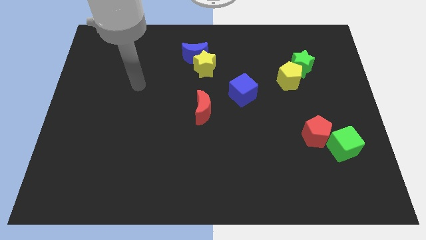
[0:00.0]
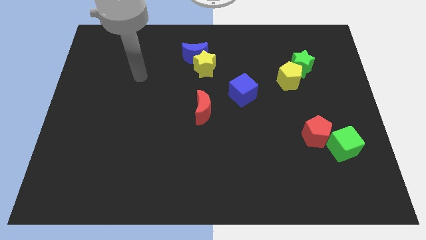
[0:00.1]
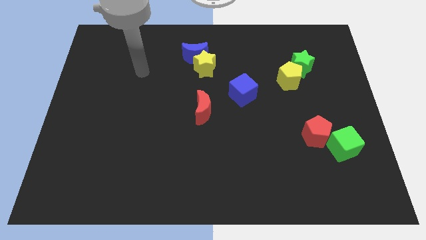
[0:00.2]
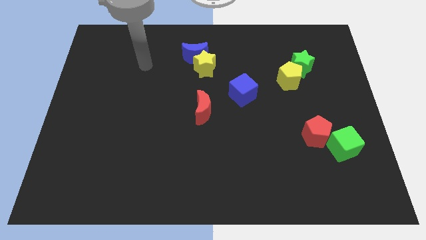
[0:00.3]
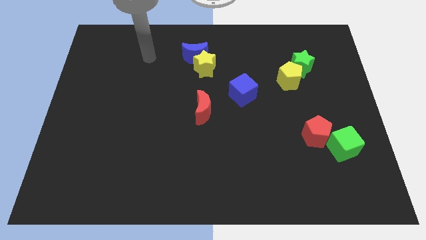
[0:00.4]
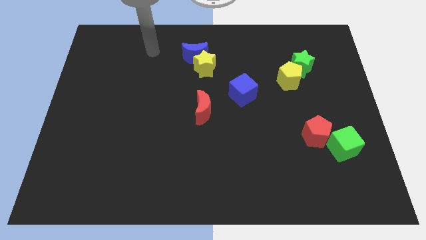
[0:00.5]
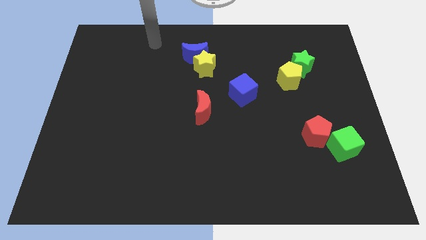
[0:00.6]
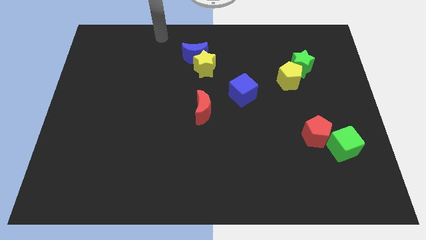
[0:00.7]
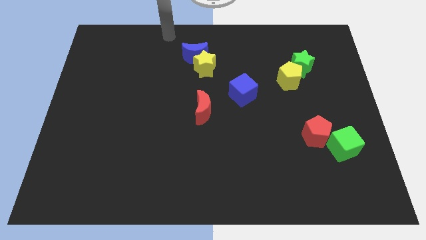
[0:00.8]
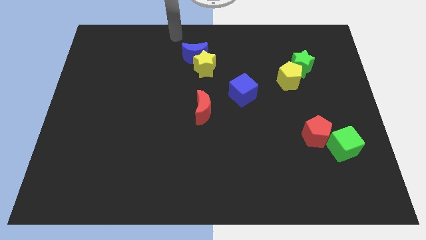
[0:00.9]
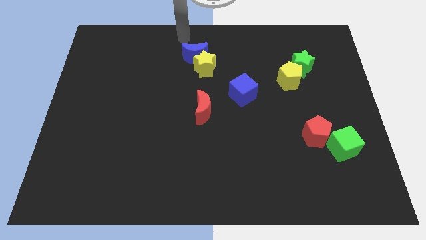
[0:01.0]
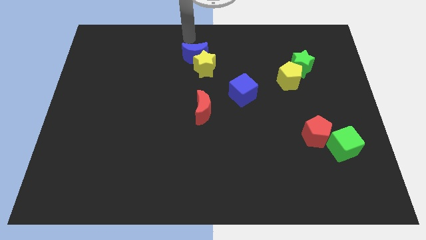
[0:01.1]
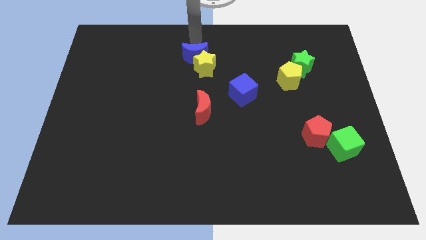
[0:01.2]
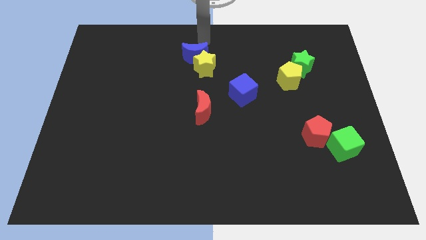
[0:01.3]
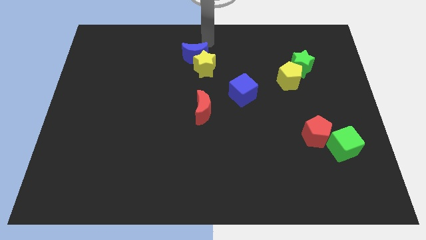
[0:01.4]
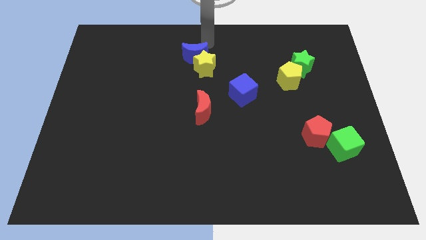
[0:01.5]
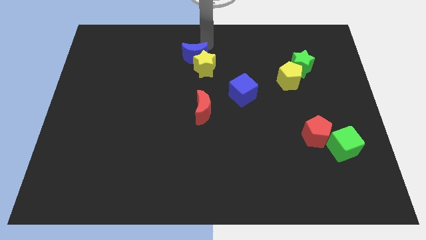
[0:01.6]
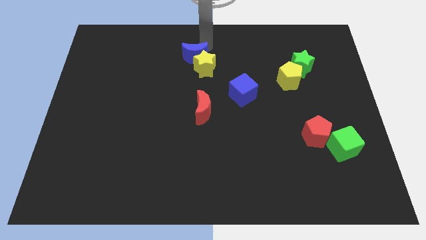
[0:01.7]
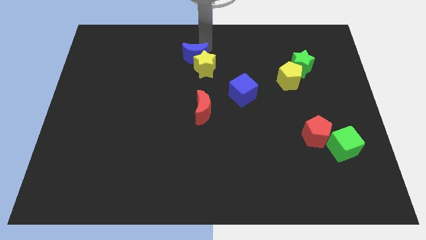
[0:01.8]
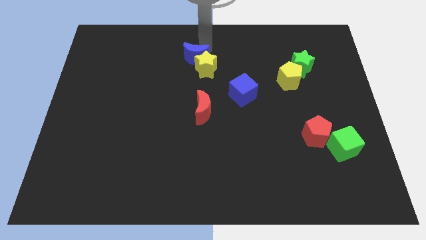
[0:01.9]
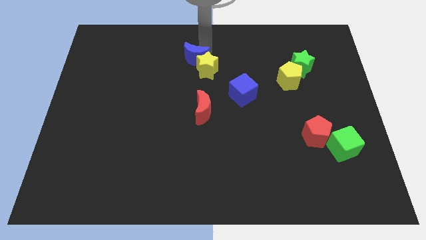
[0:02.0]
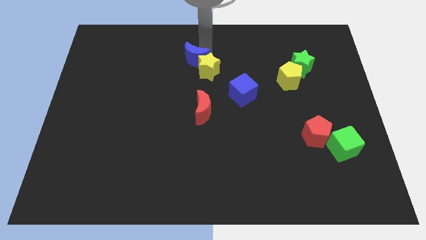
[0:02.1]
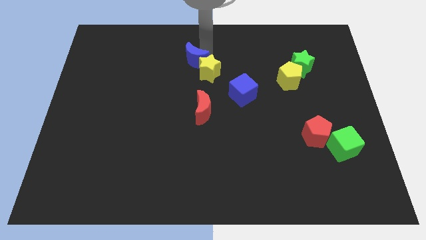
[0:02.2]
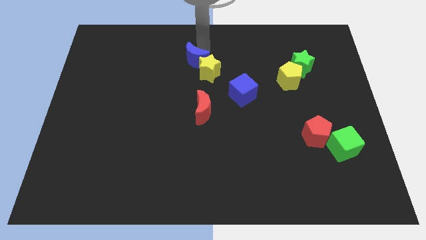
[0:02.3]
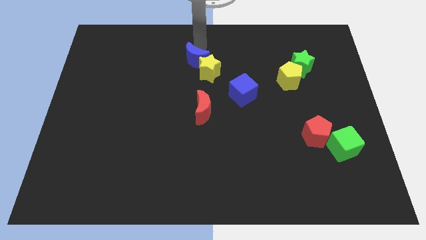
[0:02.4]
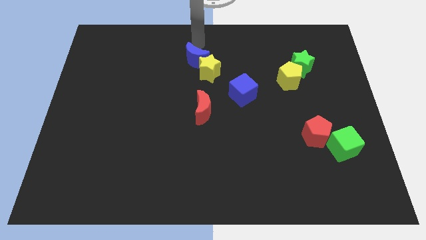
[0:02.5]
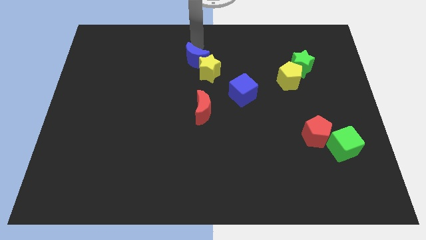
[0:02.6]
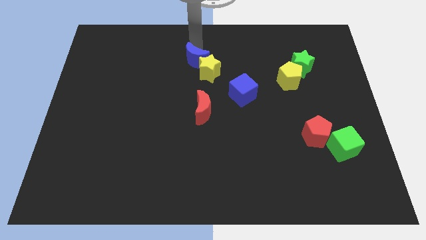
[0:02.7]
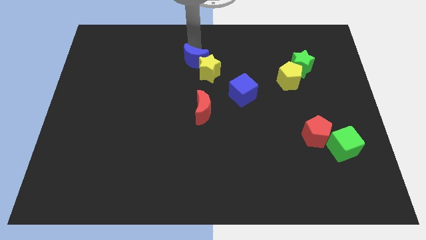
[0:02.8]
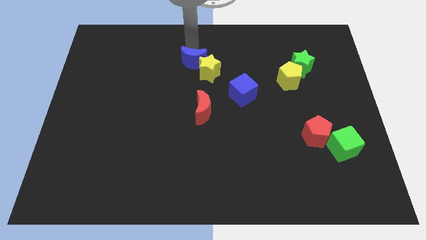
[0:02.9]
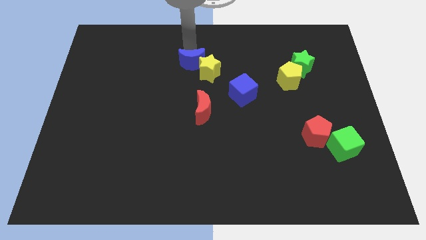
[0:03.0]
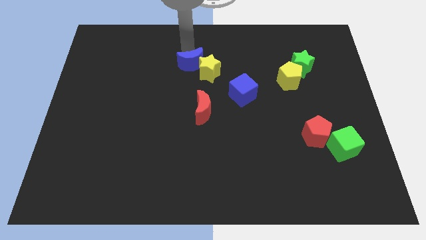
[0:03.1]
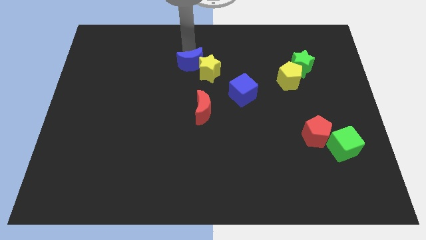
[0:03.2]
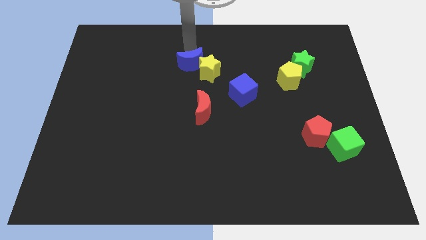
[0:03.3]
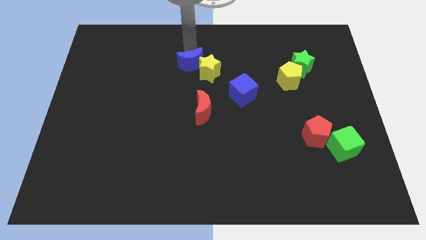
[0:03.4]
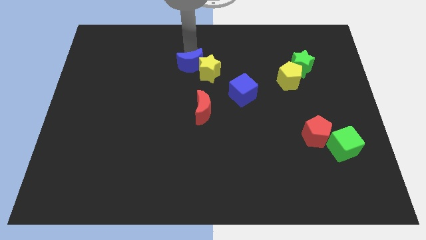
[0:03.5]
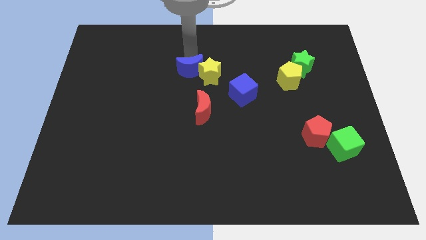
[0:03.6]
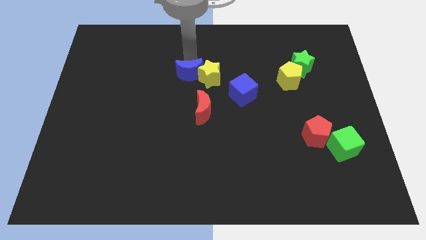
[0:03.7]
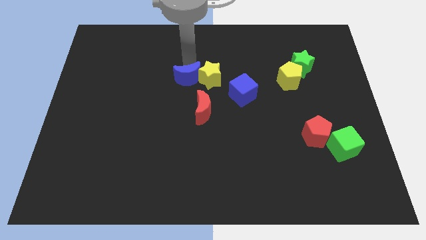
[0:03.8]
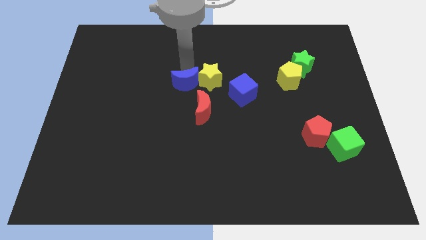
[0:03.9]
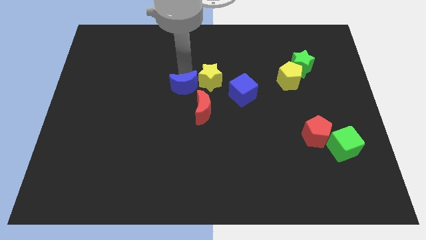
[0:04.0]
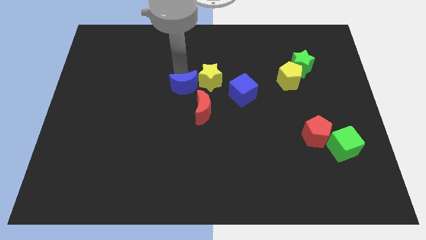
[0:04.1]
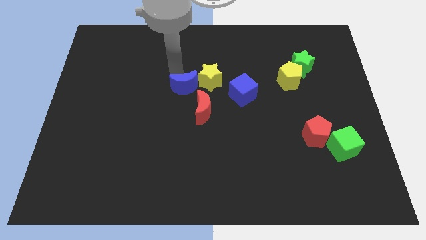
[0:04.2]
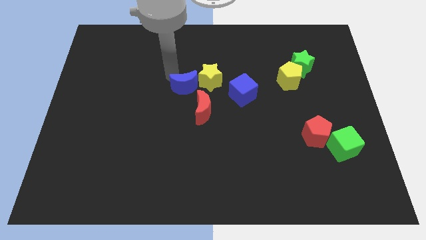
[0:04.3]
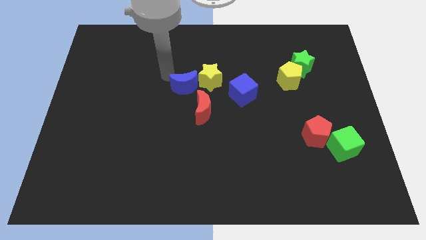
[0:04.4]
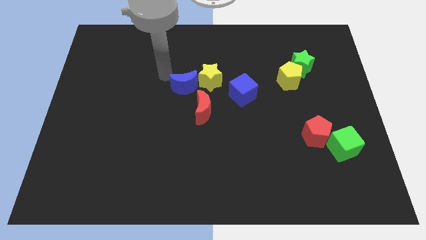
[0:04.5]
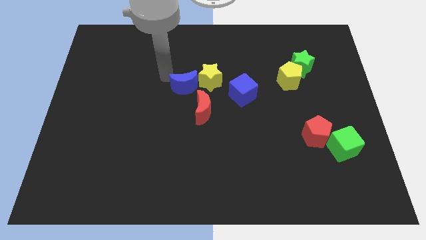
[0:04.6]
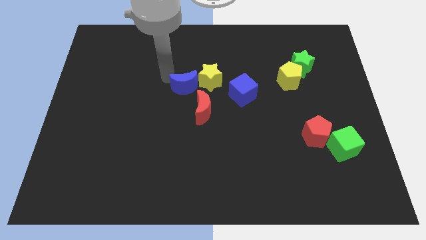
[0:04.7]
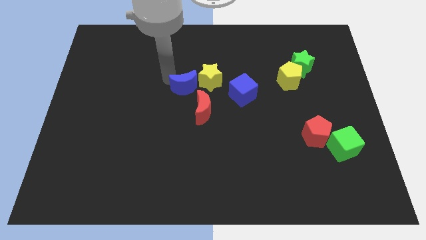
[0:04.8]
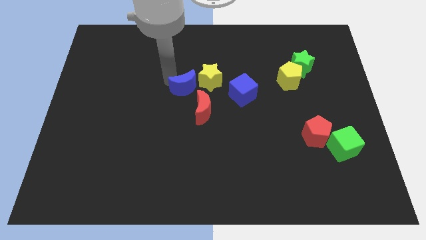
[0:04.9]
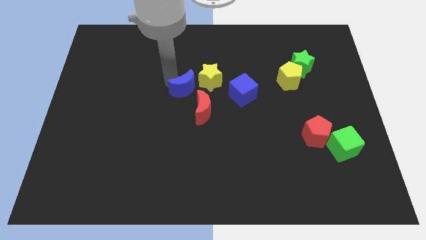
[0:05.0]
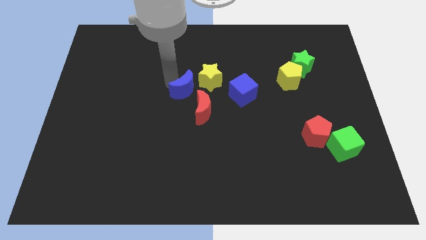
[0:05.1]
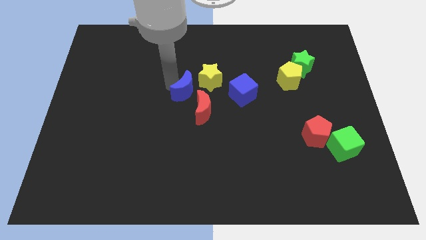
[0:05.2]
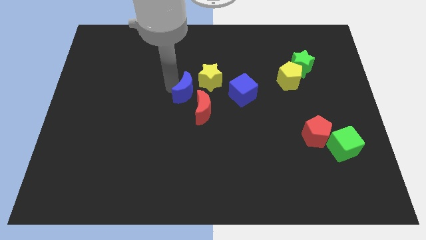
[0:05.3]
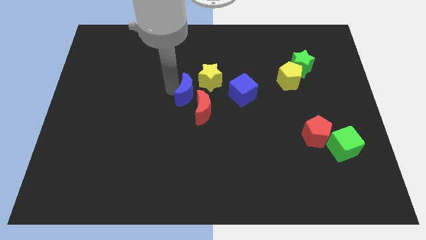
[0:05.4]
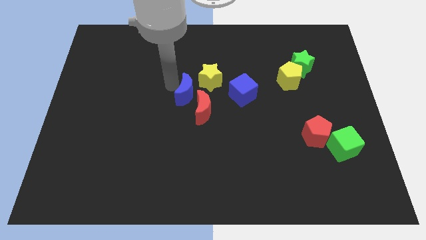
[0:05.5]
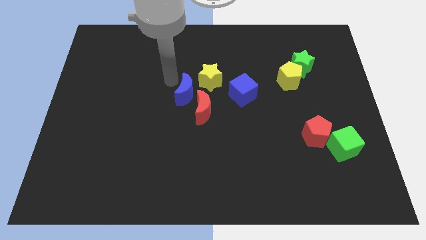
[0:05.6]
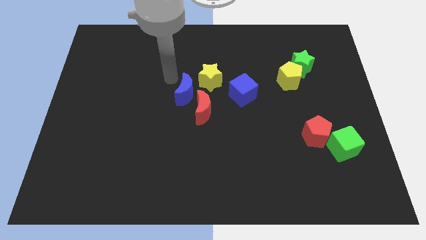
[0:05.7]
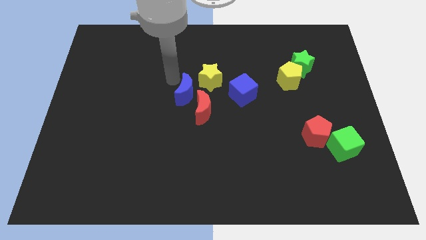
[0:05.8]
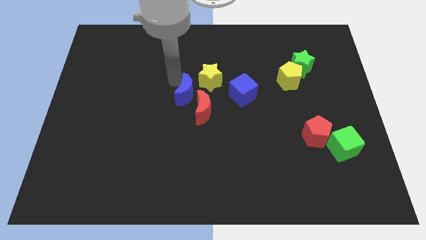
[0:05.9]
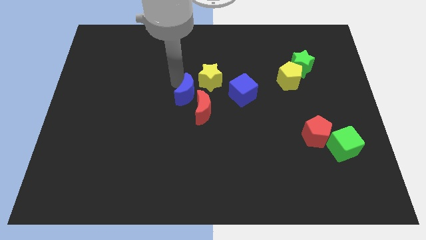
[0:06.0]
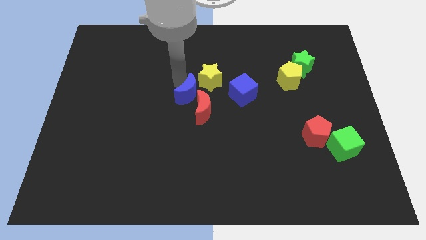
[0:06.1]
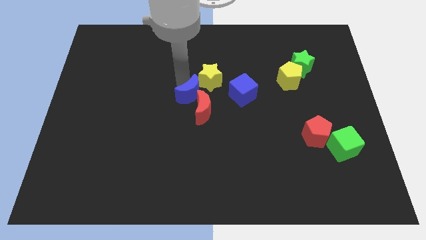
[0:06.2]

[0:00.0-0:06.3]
push the blue moon towards the red moon
